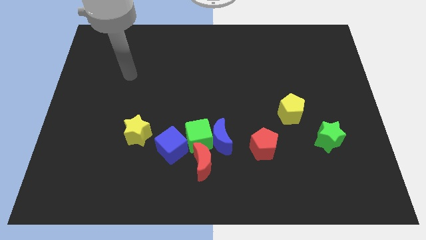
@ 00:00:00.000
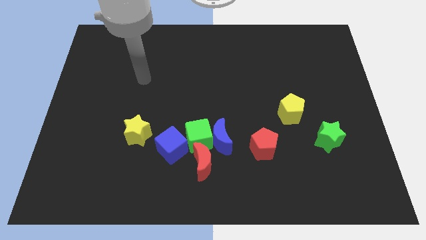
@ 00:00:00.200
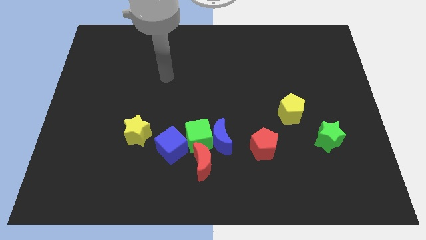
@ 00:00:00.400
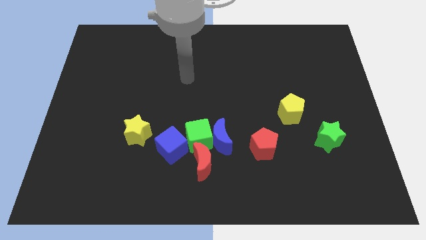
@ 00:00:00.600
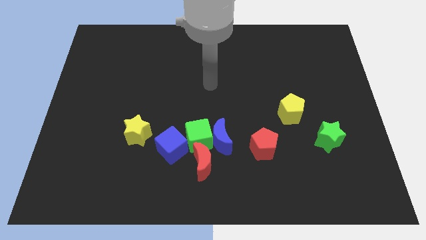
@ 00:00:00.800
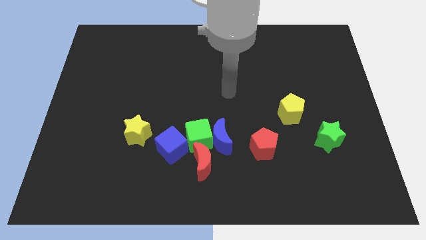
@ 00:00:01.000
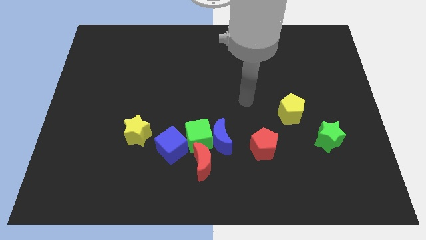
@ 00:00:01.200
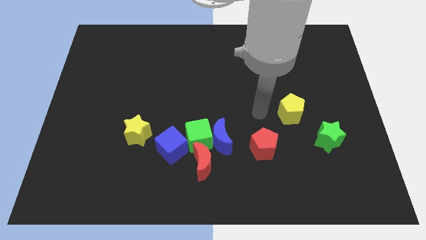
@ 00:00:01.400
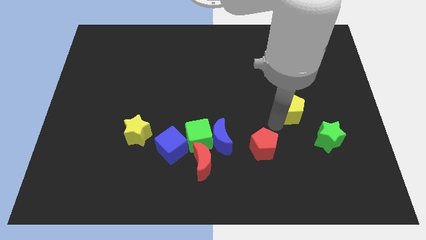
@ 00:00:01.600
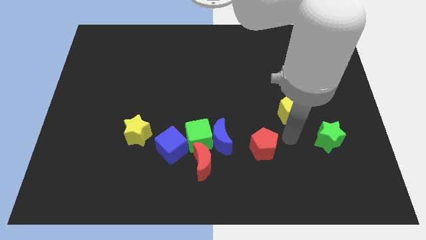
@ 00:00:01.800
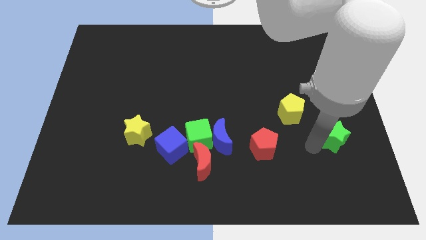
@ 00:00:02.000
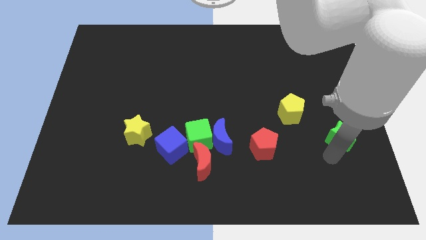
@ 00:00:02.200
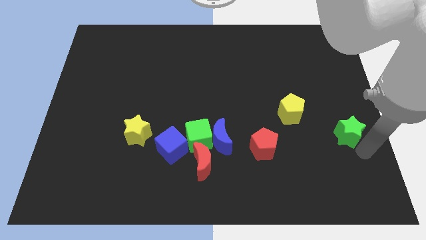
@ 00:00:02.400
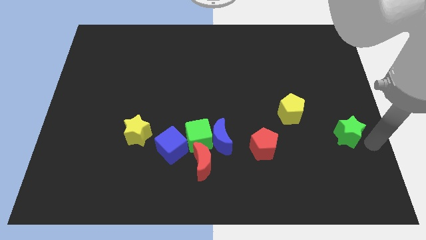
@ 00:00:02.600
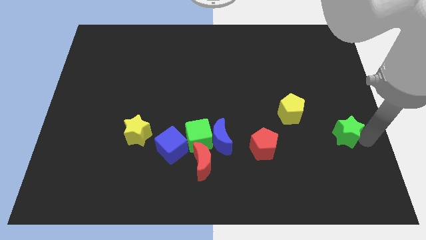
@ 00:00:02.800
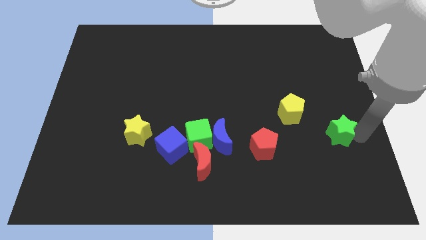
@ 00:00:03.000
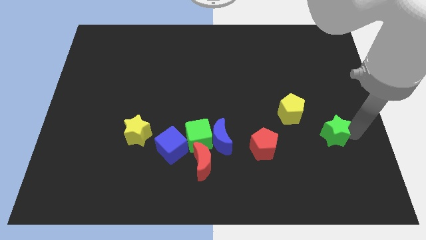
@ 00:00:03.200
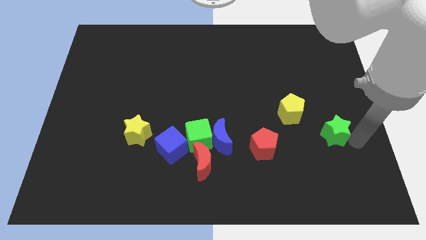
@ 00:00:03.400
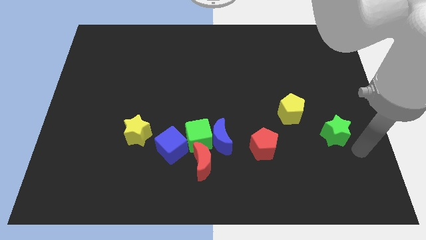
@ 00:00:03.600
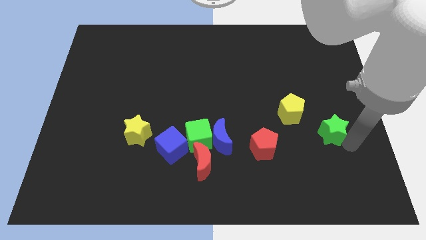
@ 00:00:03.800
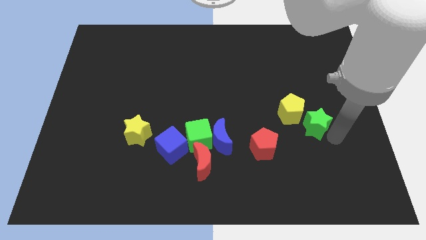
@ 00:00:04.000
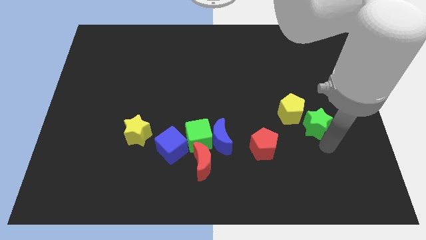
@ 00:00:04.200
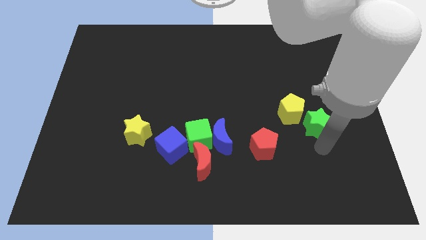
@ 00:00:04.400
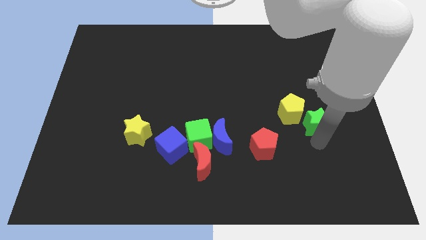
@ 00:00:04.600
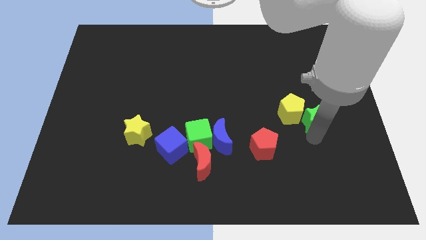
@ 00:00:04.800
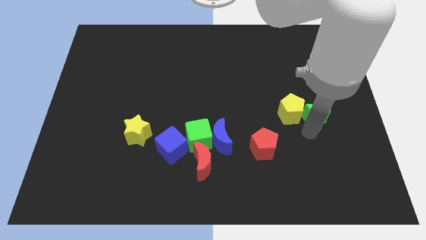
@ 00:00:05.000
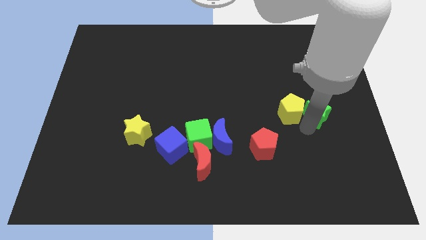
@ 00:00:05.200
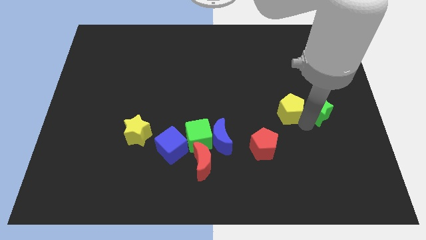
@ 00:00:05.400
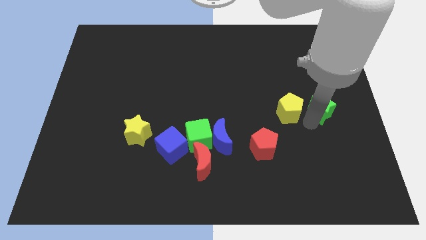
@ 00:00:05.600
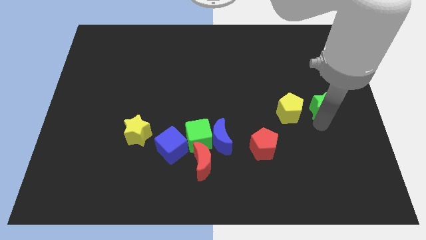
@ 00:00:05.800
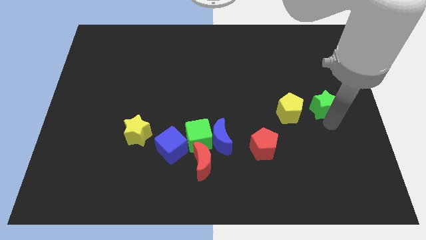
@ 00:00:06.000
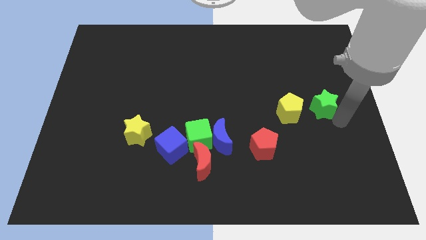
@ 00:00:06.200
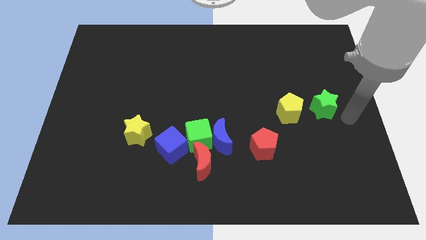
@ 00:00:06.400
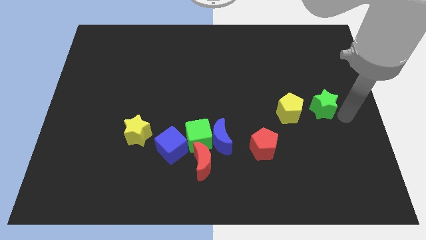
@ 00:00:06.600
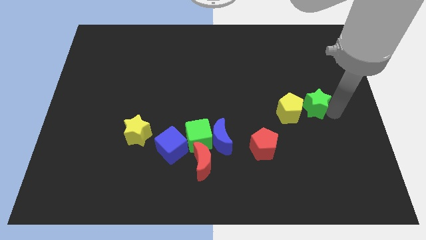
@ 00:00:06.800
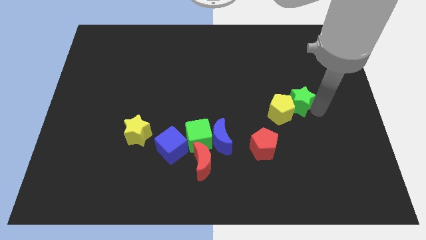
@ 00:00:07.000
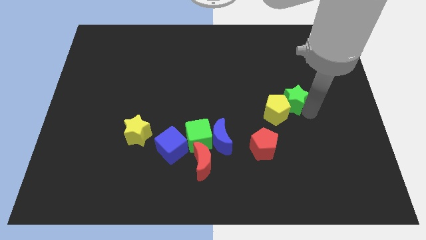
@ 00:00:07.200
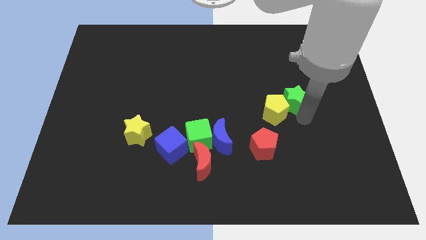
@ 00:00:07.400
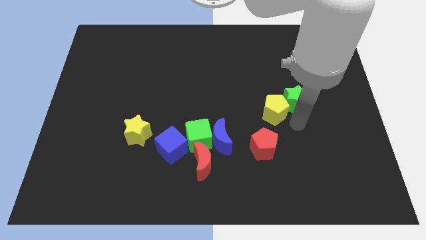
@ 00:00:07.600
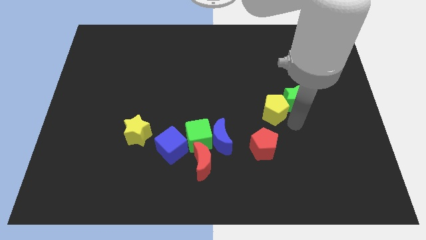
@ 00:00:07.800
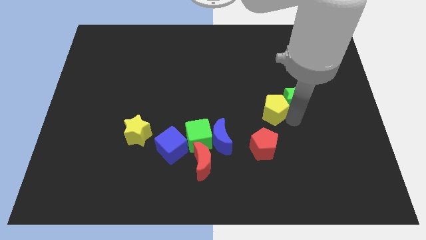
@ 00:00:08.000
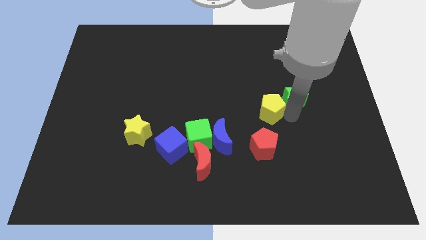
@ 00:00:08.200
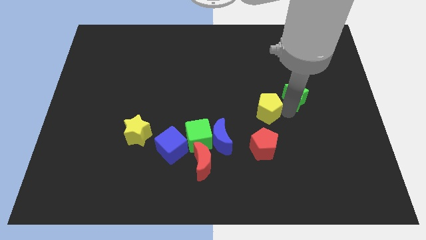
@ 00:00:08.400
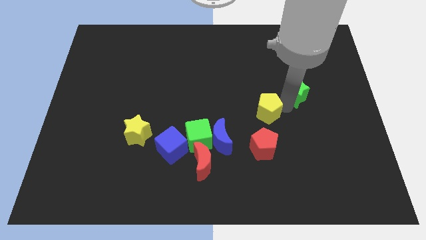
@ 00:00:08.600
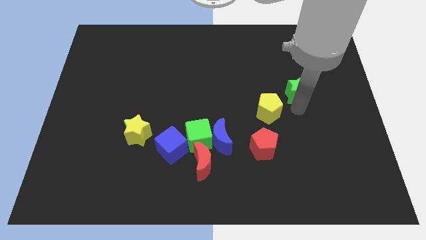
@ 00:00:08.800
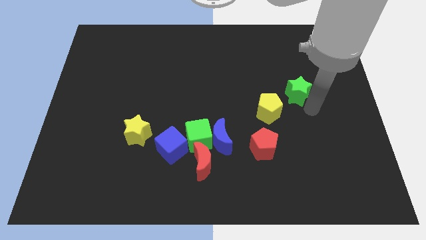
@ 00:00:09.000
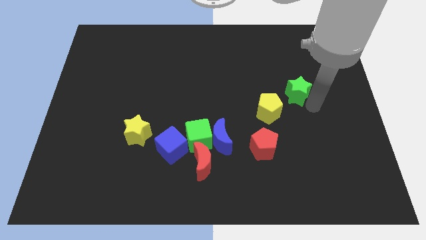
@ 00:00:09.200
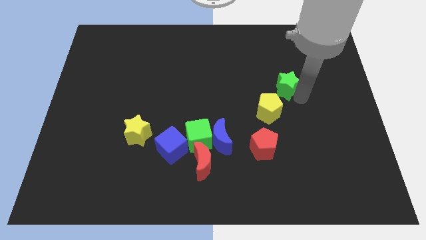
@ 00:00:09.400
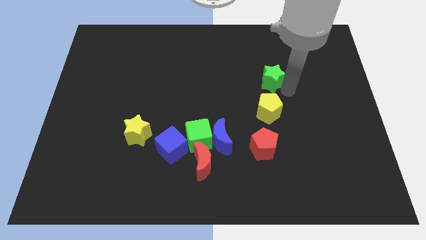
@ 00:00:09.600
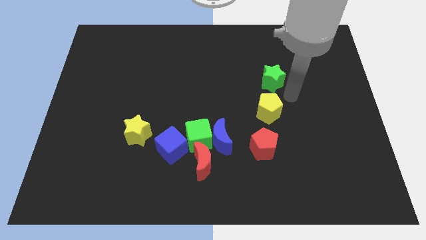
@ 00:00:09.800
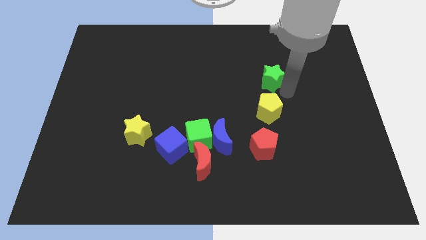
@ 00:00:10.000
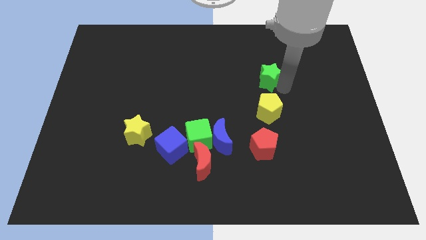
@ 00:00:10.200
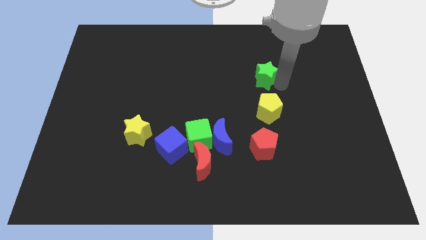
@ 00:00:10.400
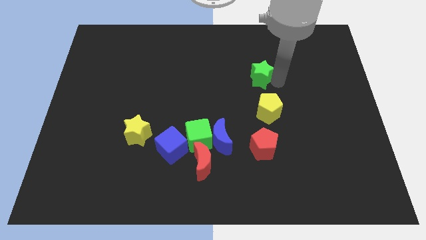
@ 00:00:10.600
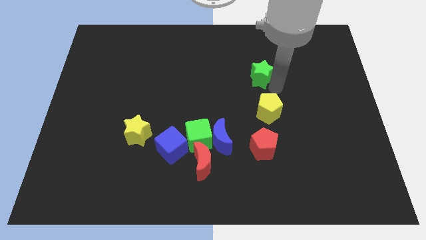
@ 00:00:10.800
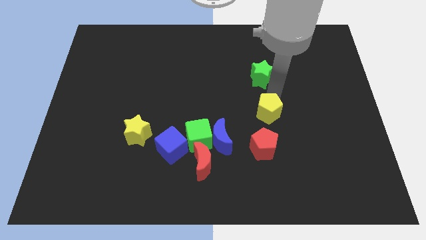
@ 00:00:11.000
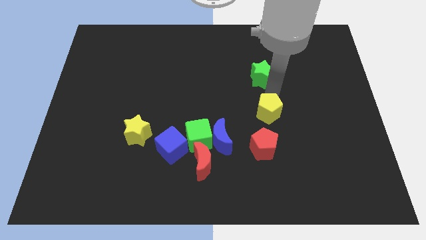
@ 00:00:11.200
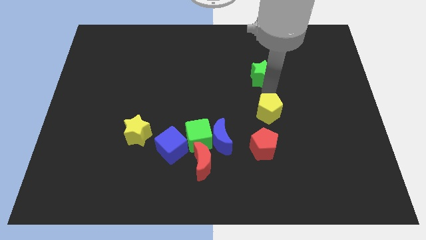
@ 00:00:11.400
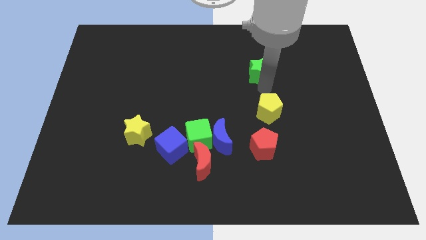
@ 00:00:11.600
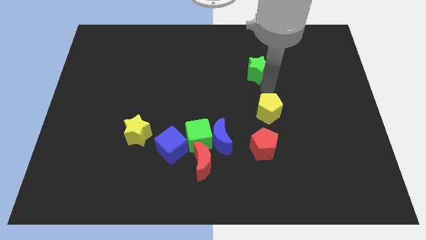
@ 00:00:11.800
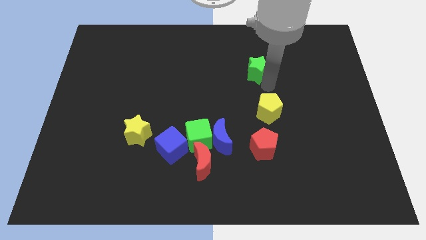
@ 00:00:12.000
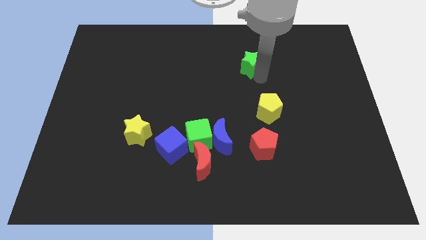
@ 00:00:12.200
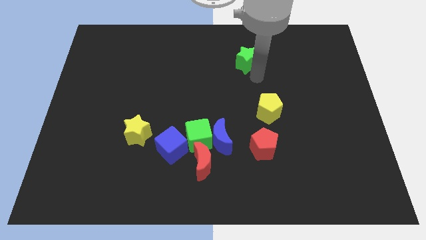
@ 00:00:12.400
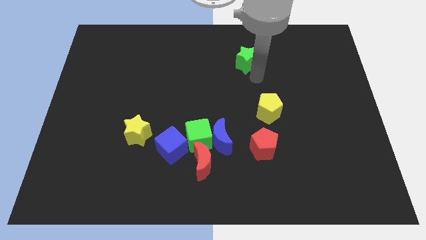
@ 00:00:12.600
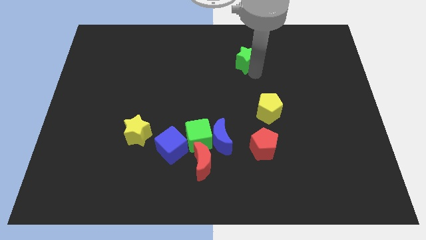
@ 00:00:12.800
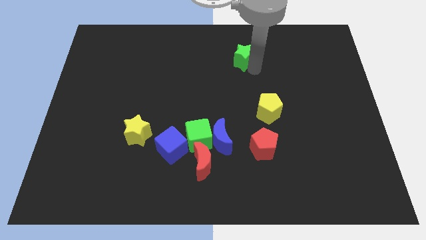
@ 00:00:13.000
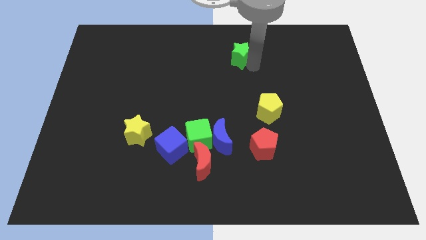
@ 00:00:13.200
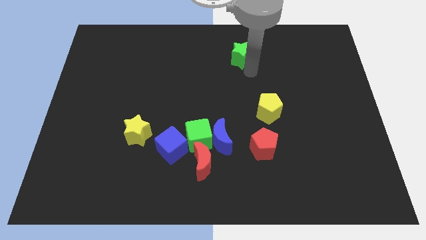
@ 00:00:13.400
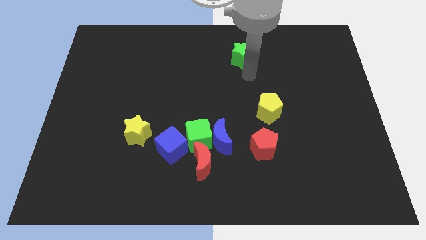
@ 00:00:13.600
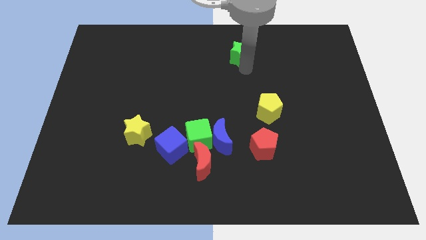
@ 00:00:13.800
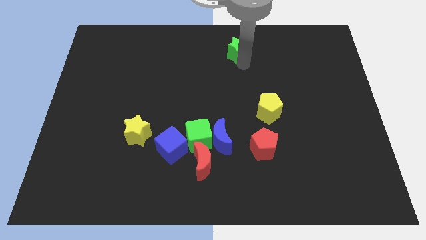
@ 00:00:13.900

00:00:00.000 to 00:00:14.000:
put the green star to the top
